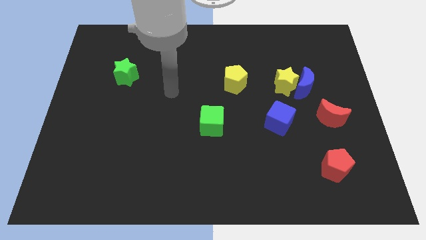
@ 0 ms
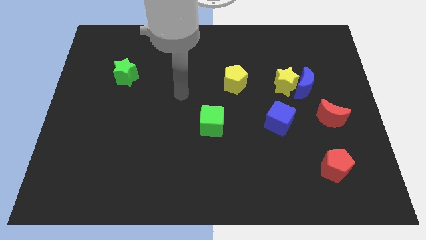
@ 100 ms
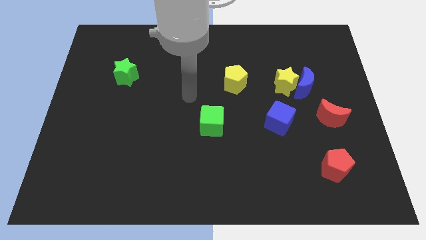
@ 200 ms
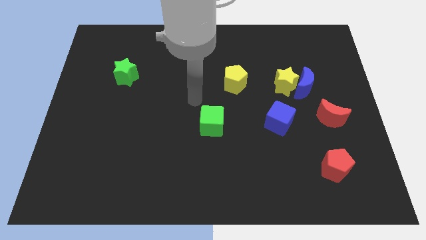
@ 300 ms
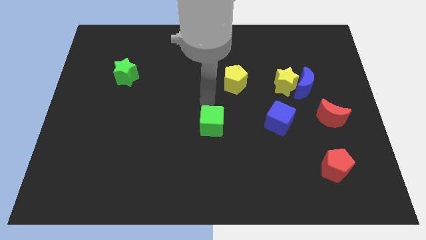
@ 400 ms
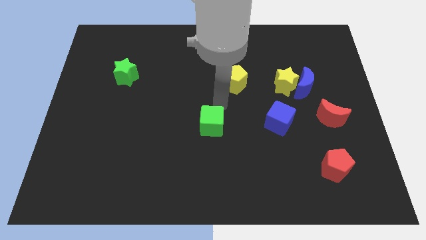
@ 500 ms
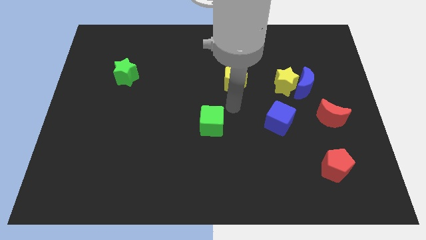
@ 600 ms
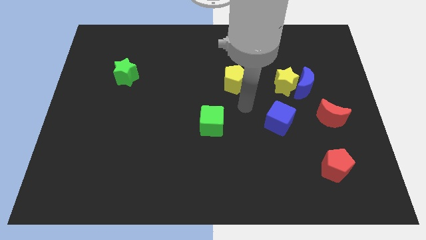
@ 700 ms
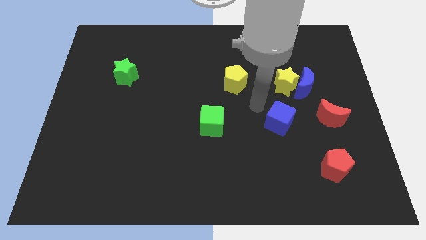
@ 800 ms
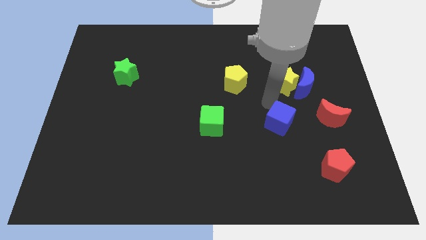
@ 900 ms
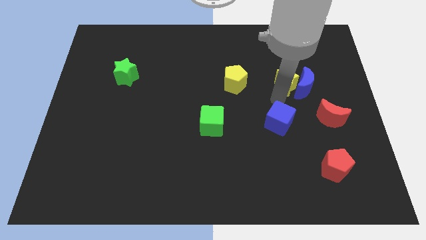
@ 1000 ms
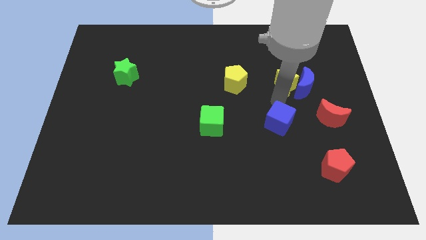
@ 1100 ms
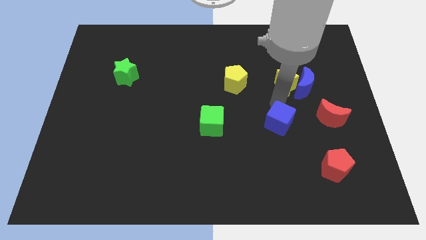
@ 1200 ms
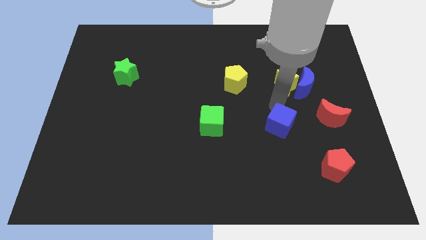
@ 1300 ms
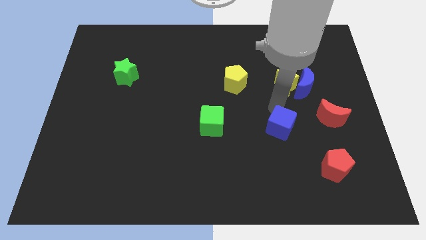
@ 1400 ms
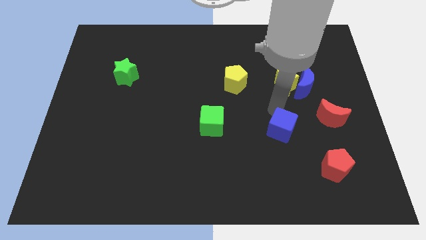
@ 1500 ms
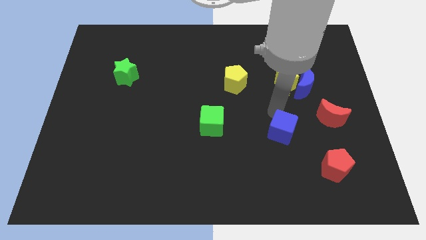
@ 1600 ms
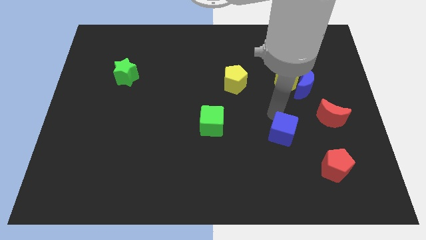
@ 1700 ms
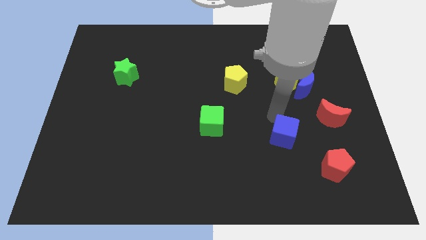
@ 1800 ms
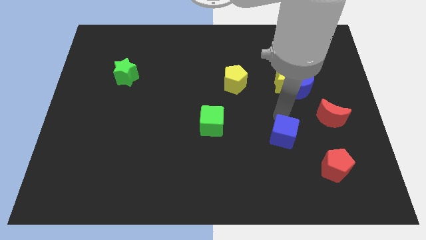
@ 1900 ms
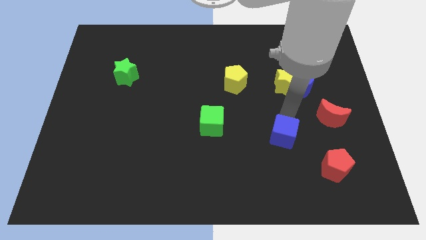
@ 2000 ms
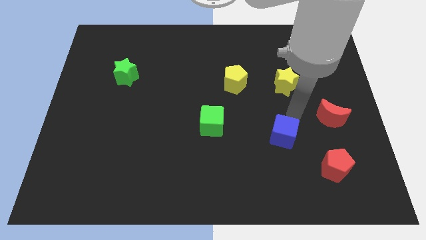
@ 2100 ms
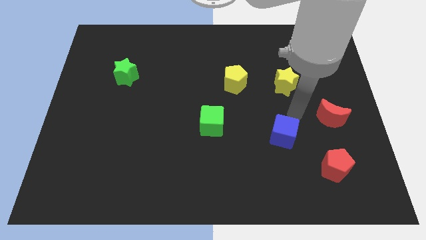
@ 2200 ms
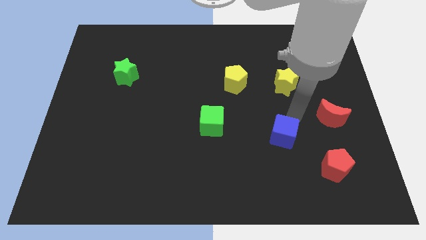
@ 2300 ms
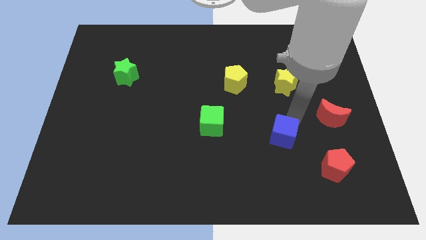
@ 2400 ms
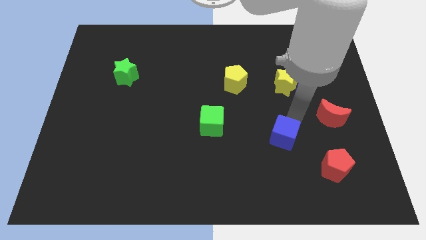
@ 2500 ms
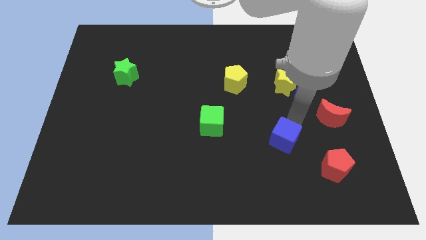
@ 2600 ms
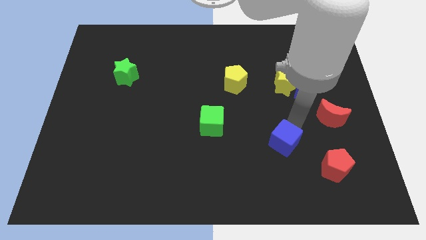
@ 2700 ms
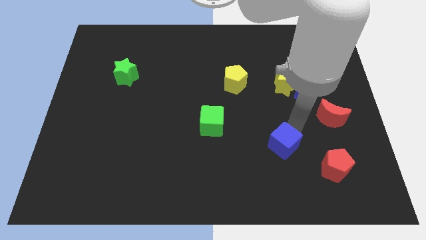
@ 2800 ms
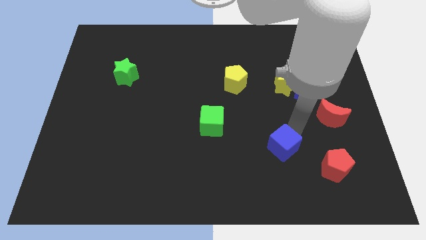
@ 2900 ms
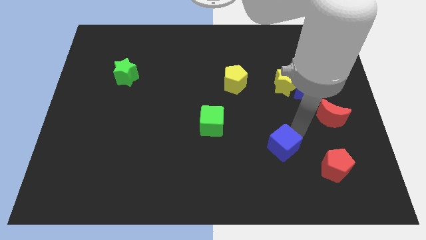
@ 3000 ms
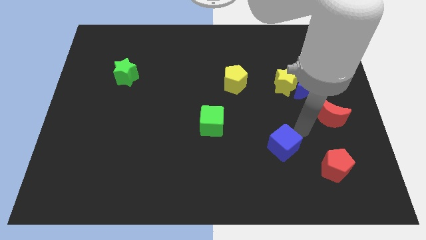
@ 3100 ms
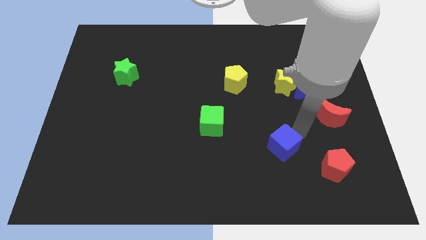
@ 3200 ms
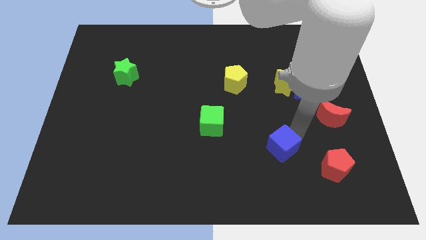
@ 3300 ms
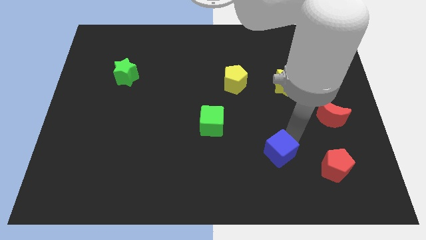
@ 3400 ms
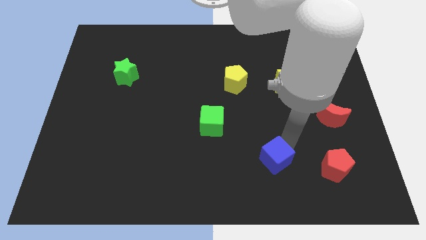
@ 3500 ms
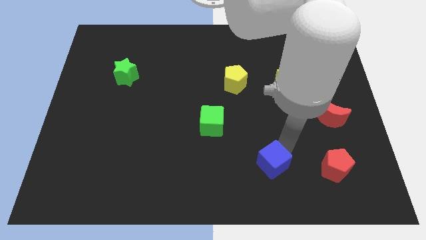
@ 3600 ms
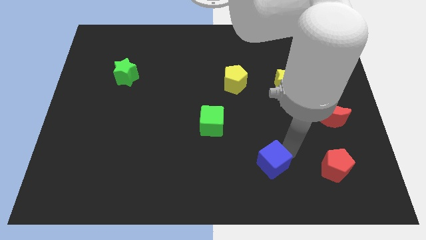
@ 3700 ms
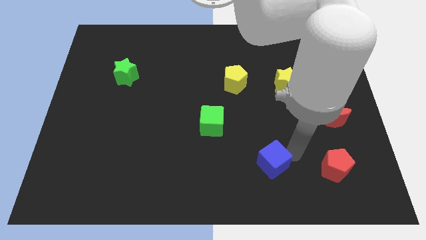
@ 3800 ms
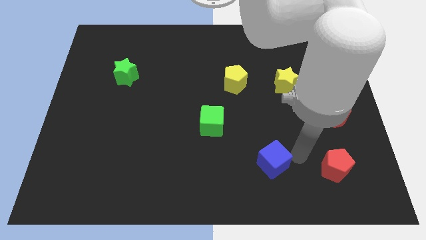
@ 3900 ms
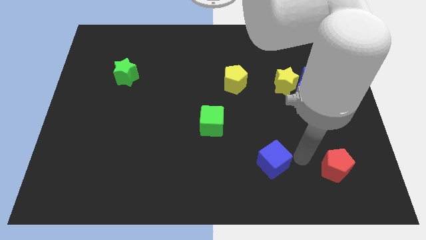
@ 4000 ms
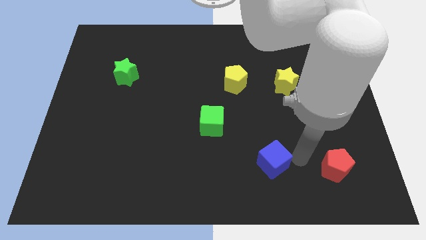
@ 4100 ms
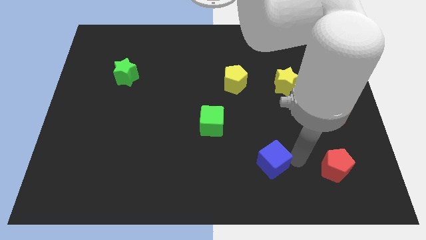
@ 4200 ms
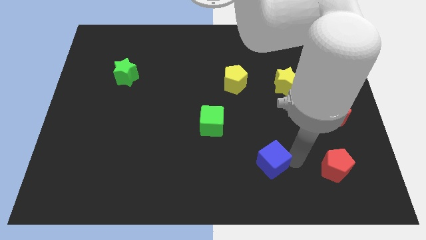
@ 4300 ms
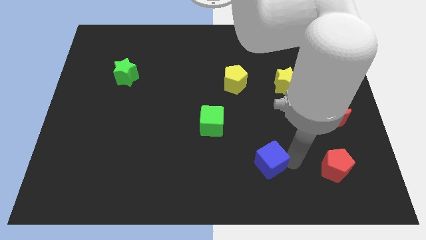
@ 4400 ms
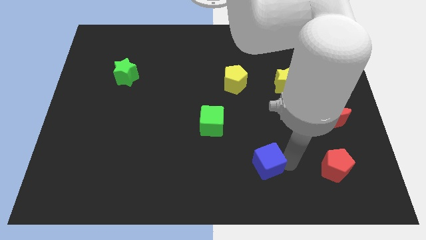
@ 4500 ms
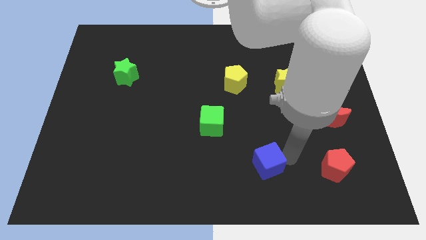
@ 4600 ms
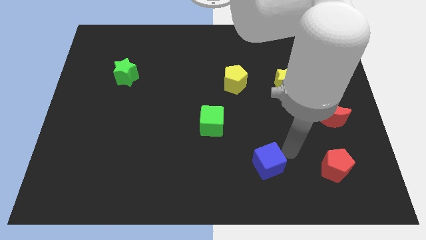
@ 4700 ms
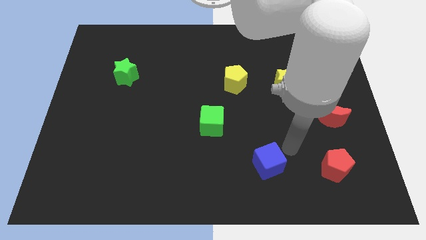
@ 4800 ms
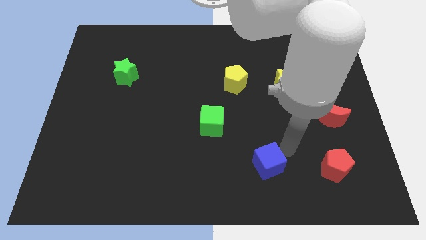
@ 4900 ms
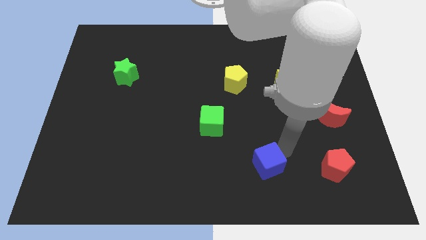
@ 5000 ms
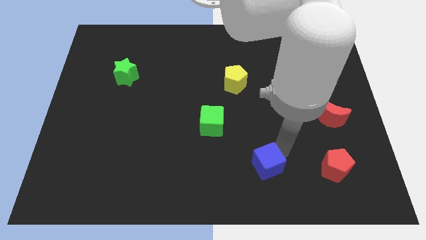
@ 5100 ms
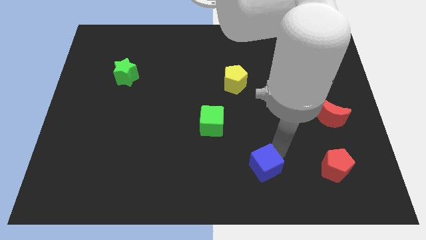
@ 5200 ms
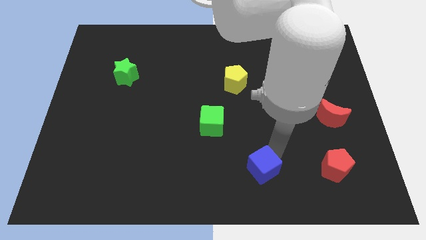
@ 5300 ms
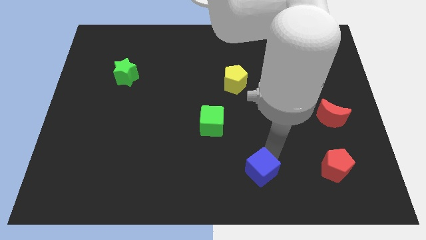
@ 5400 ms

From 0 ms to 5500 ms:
move the blue cube to the bottom side

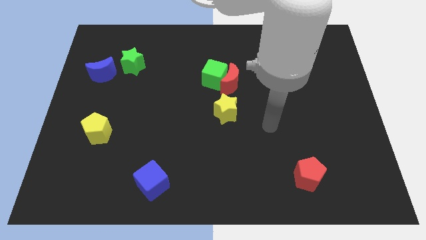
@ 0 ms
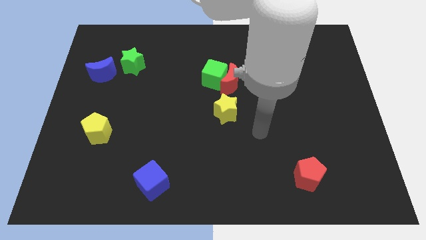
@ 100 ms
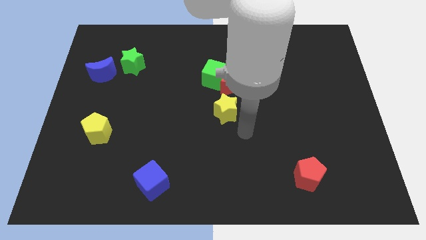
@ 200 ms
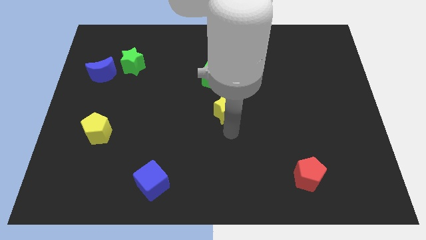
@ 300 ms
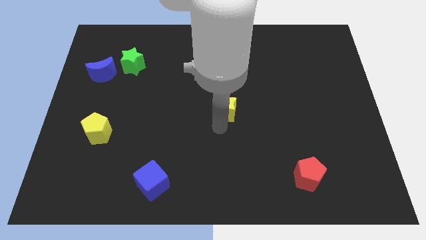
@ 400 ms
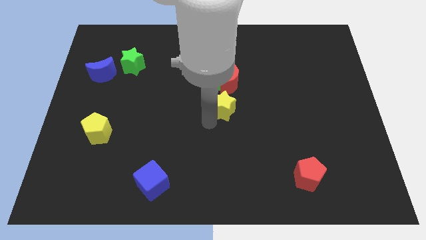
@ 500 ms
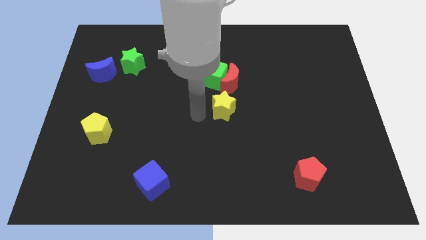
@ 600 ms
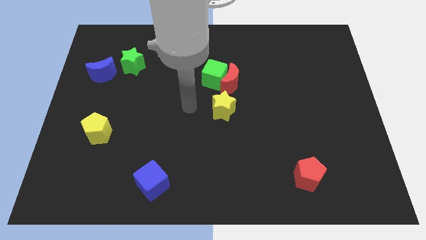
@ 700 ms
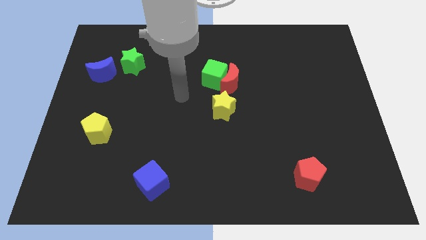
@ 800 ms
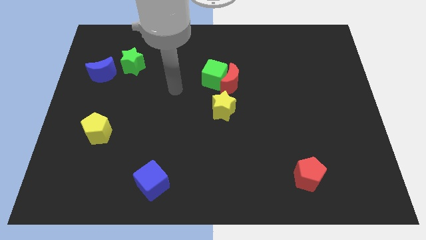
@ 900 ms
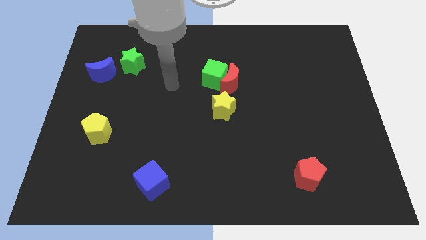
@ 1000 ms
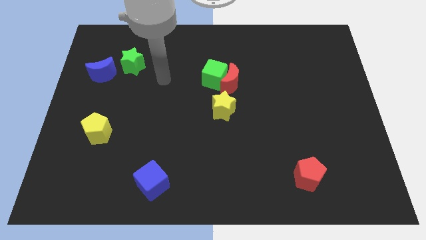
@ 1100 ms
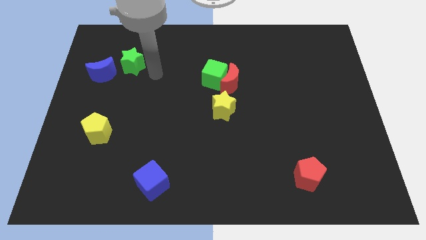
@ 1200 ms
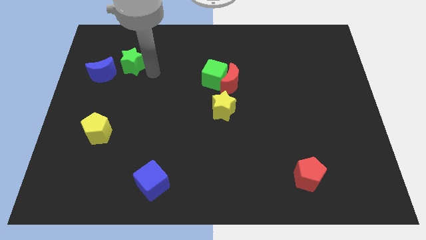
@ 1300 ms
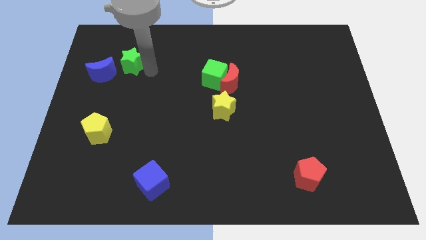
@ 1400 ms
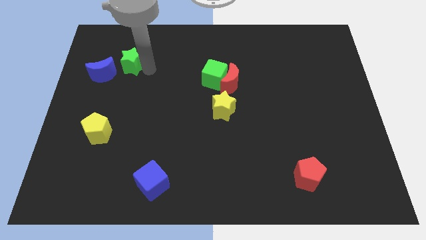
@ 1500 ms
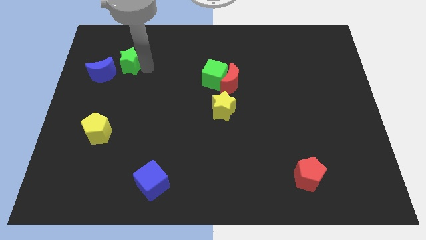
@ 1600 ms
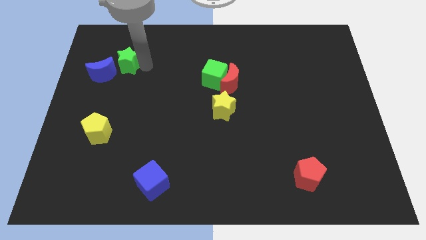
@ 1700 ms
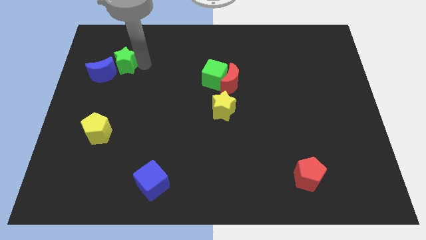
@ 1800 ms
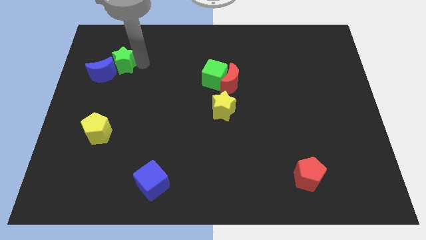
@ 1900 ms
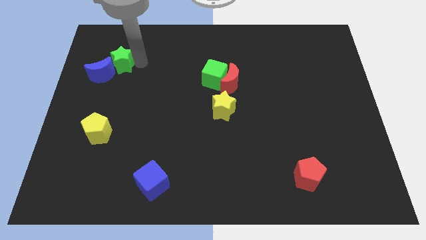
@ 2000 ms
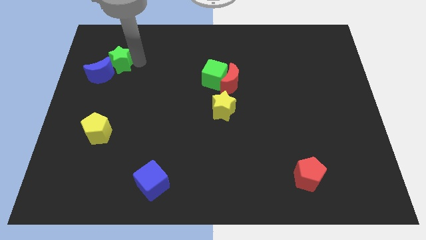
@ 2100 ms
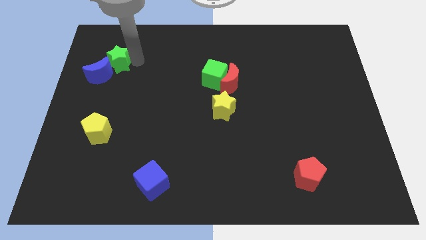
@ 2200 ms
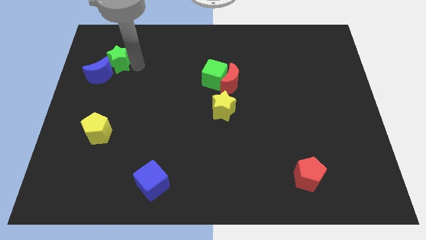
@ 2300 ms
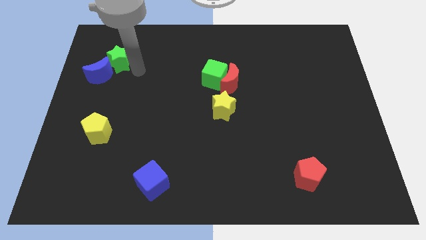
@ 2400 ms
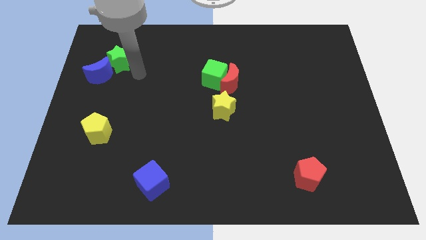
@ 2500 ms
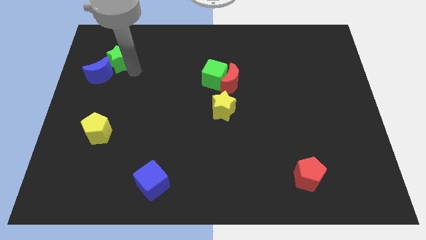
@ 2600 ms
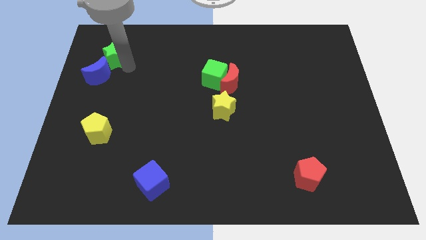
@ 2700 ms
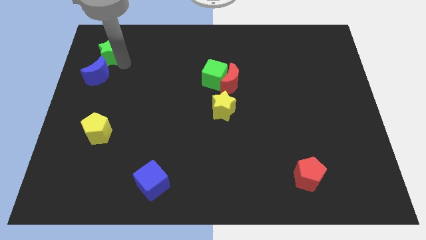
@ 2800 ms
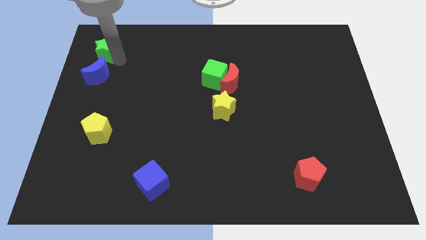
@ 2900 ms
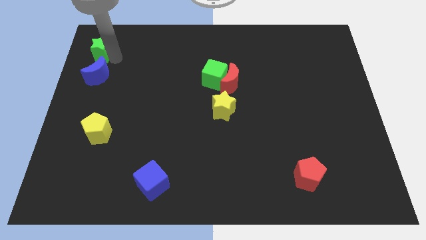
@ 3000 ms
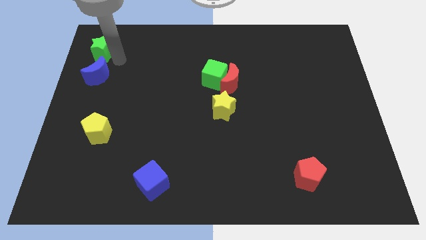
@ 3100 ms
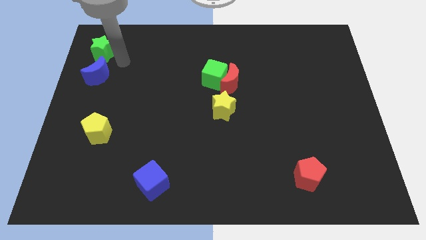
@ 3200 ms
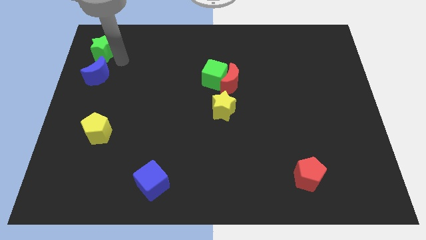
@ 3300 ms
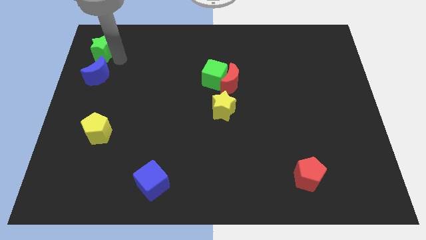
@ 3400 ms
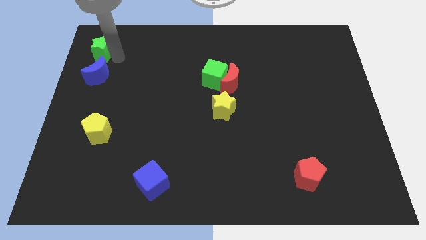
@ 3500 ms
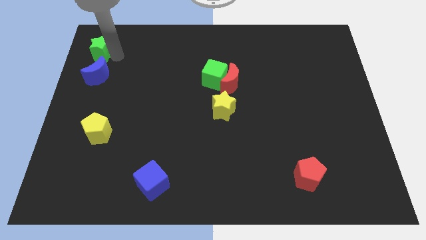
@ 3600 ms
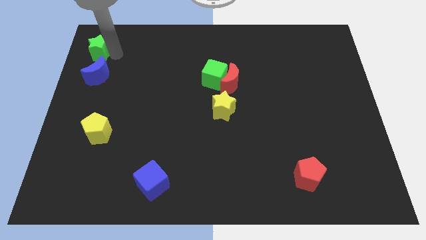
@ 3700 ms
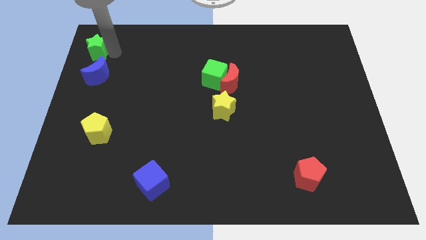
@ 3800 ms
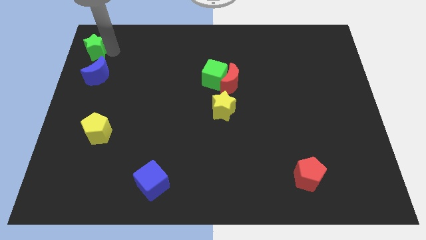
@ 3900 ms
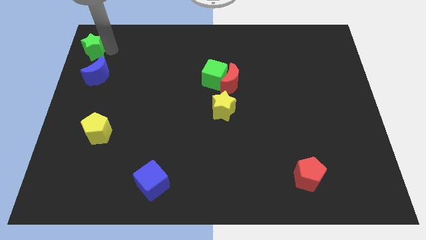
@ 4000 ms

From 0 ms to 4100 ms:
slide the green star to the top left
